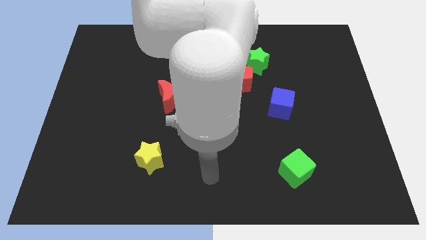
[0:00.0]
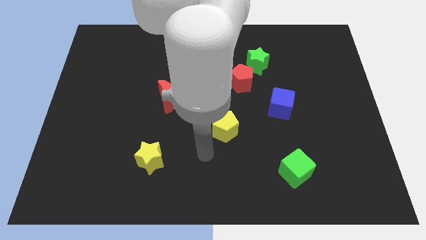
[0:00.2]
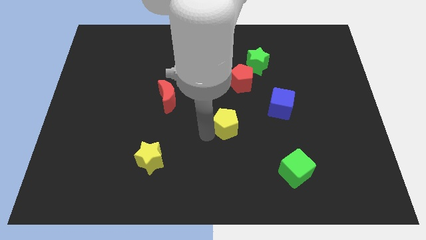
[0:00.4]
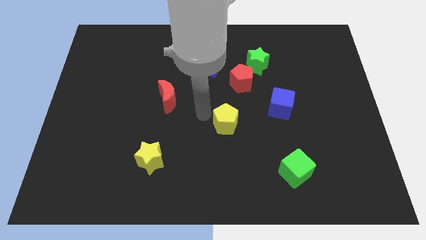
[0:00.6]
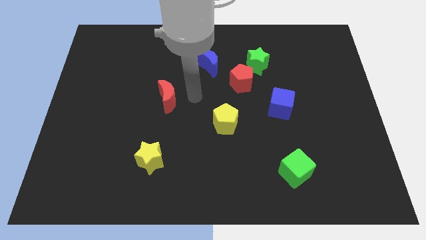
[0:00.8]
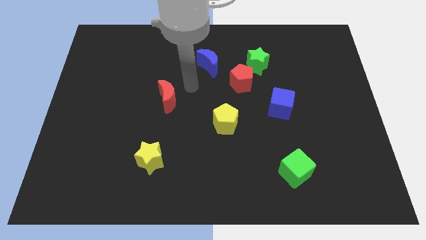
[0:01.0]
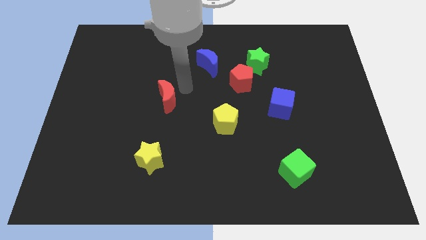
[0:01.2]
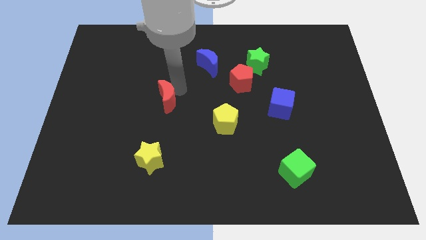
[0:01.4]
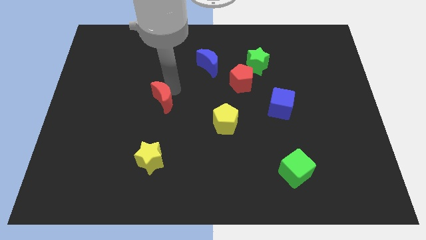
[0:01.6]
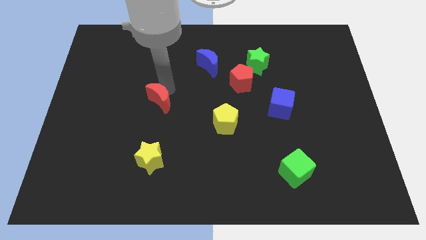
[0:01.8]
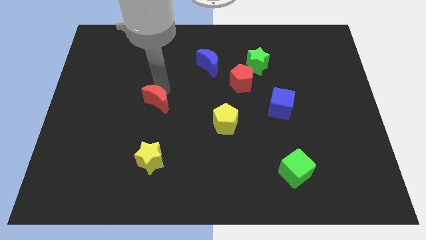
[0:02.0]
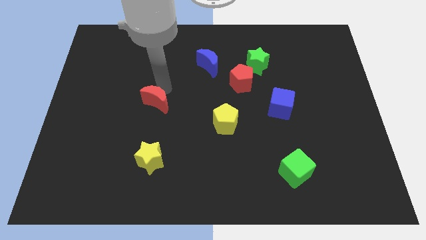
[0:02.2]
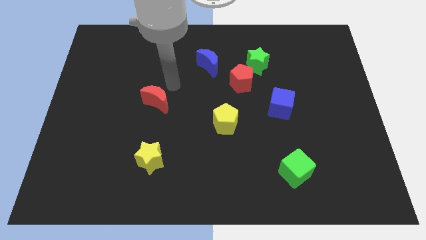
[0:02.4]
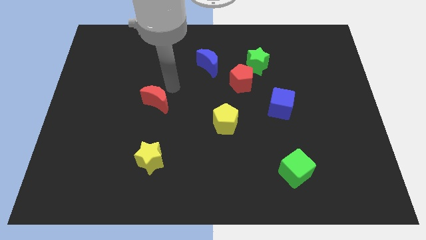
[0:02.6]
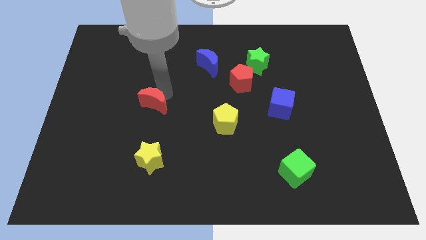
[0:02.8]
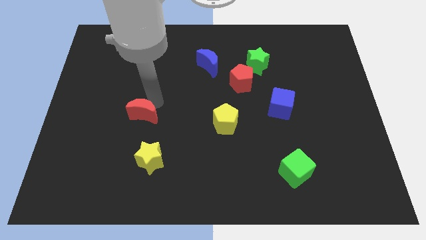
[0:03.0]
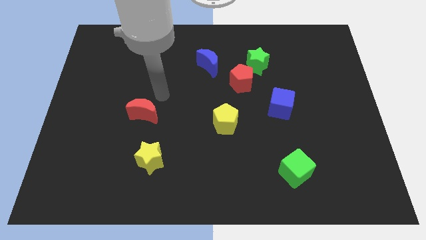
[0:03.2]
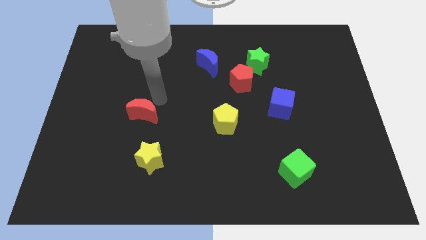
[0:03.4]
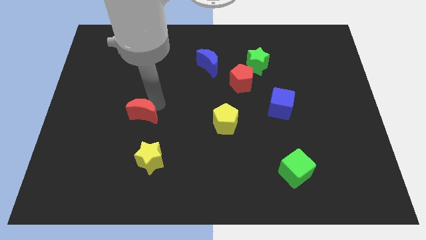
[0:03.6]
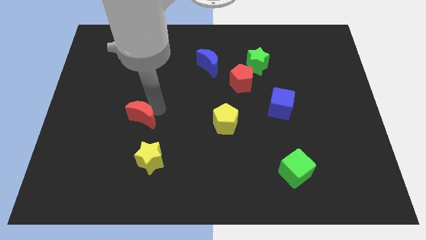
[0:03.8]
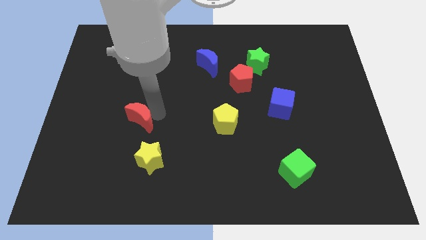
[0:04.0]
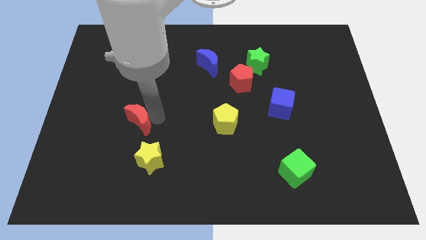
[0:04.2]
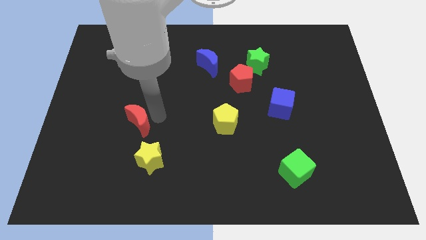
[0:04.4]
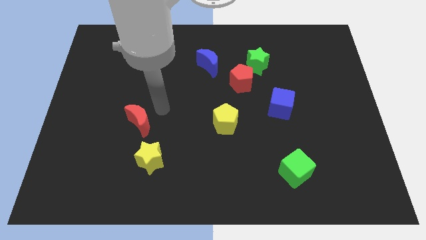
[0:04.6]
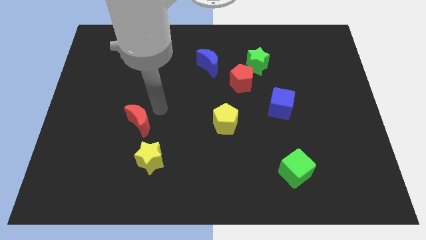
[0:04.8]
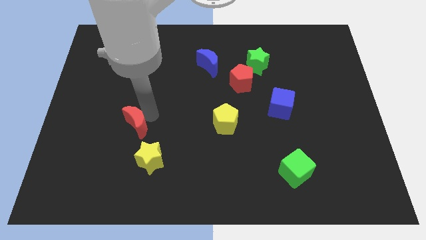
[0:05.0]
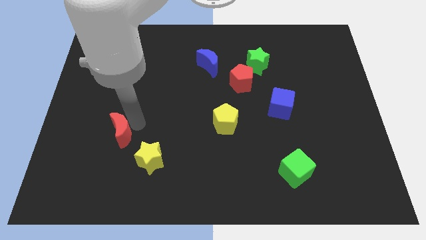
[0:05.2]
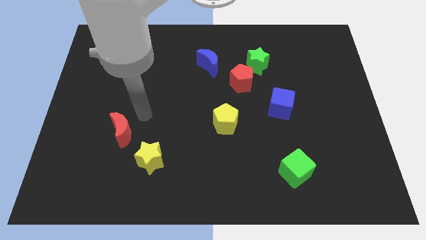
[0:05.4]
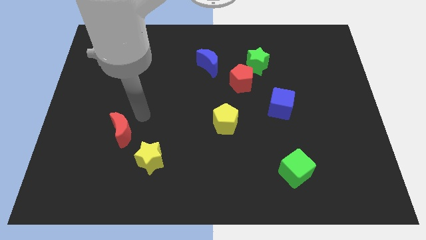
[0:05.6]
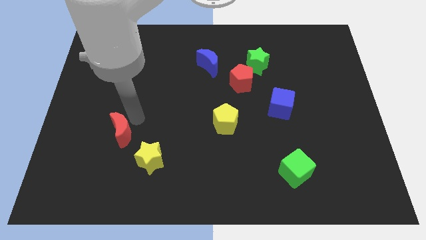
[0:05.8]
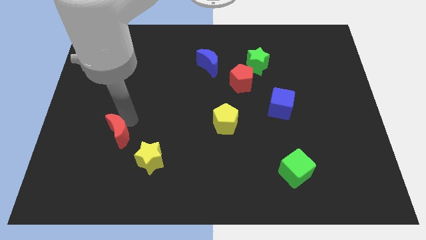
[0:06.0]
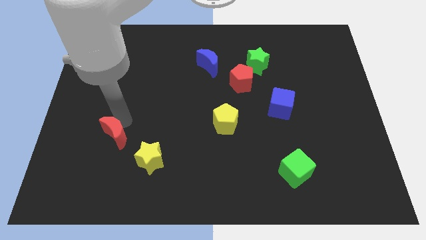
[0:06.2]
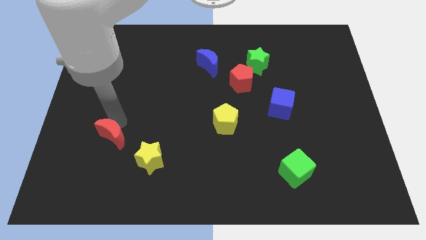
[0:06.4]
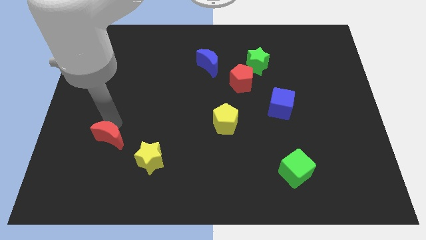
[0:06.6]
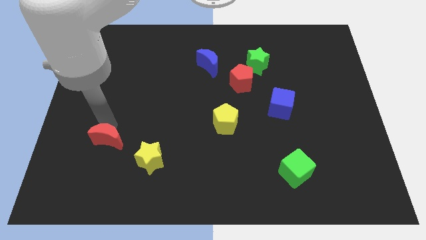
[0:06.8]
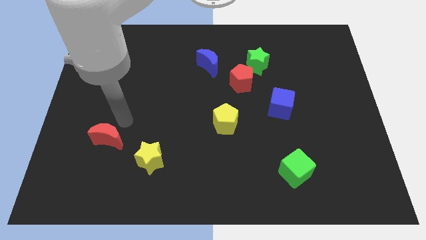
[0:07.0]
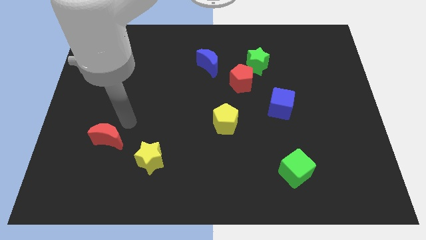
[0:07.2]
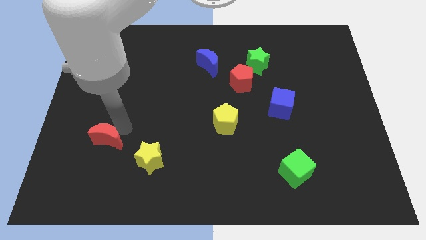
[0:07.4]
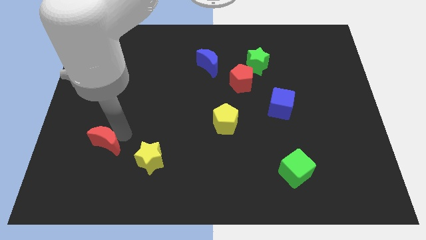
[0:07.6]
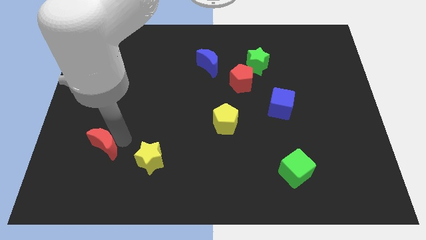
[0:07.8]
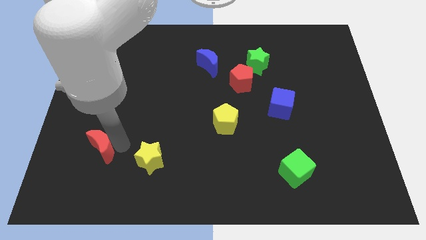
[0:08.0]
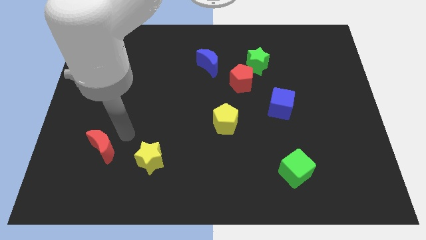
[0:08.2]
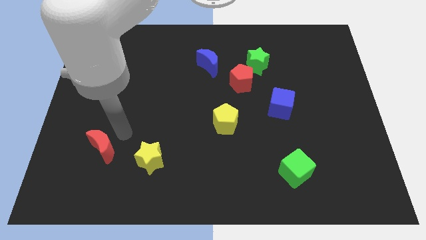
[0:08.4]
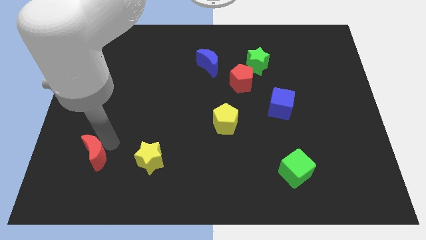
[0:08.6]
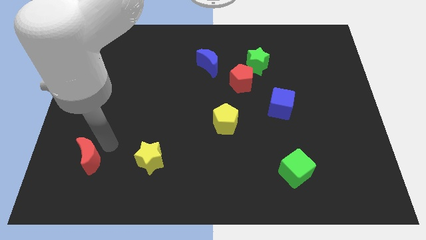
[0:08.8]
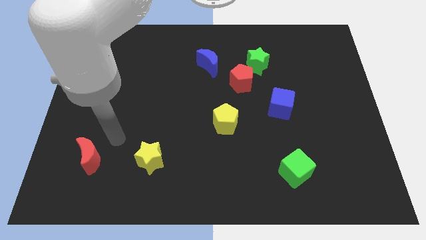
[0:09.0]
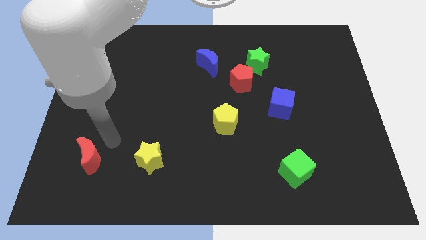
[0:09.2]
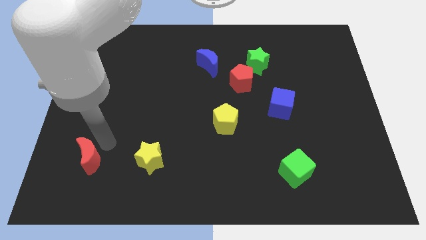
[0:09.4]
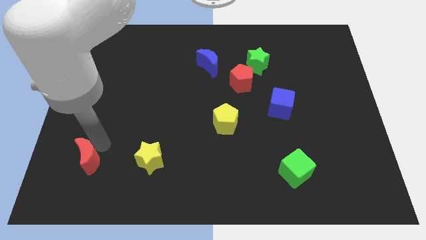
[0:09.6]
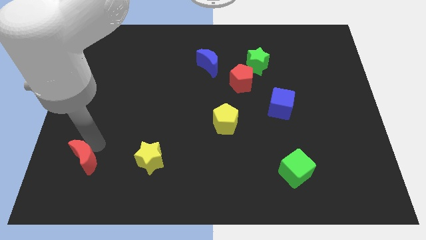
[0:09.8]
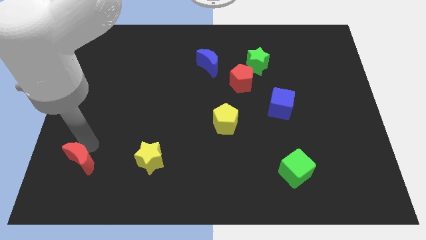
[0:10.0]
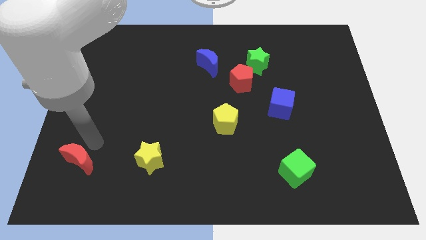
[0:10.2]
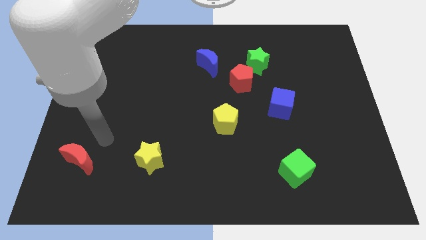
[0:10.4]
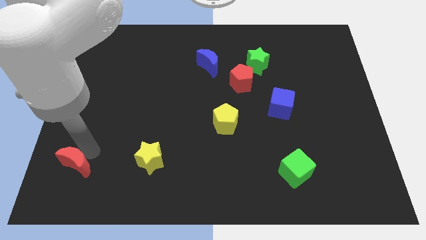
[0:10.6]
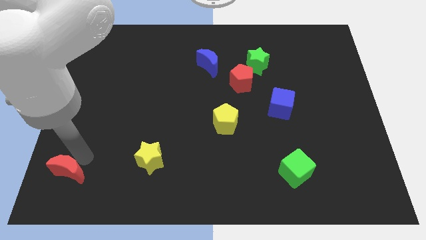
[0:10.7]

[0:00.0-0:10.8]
push the red moon to the bottom left of the board

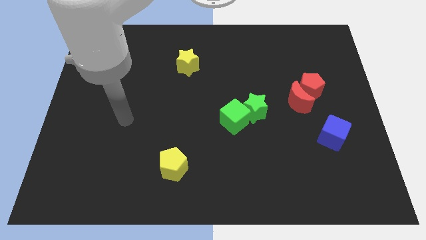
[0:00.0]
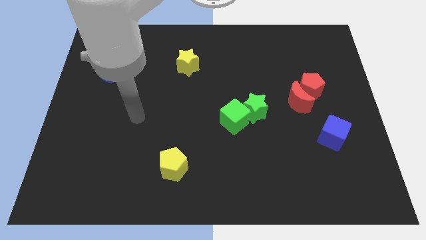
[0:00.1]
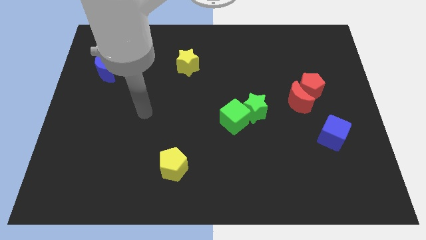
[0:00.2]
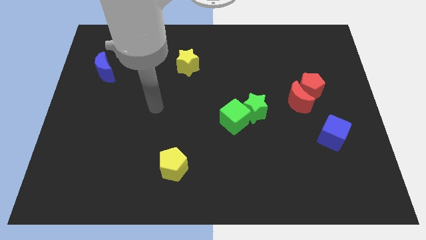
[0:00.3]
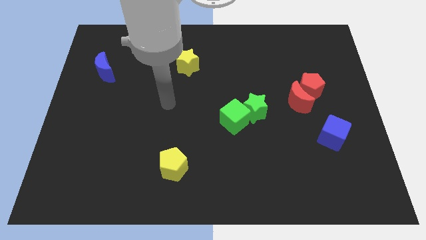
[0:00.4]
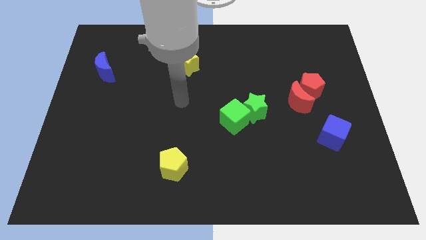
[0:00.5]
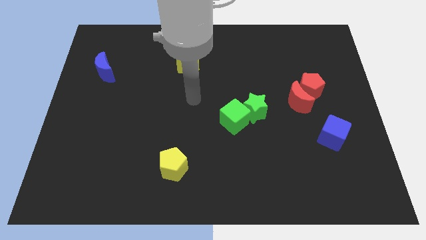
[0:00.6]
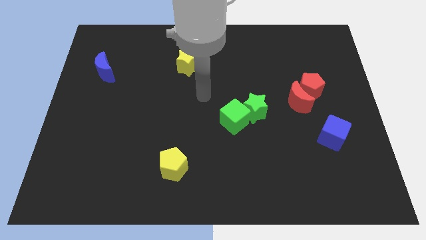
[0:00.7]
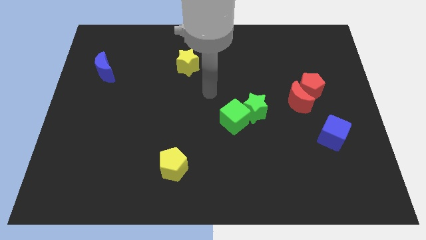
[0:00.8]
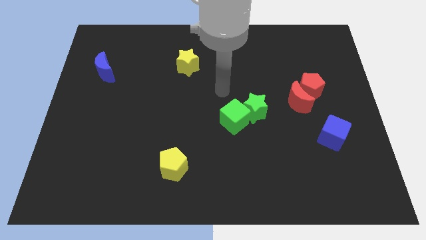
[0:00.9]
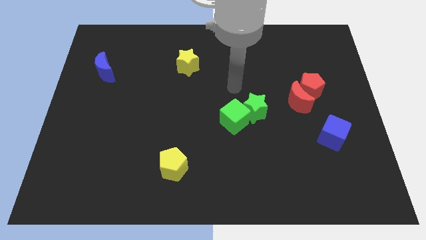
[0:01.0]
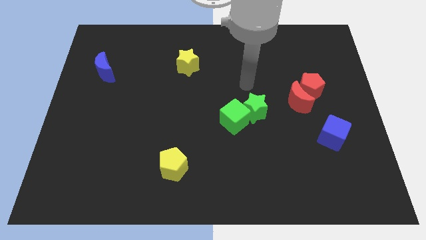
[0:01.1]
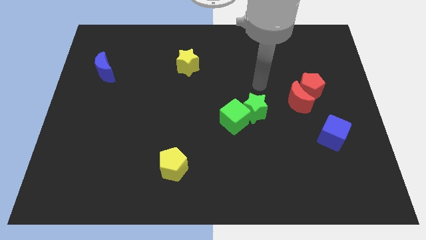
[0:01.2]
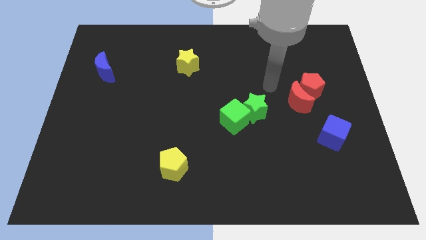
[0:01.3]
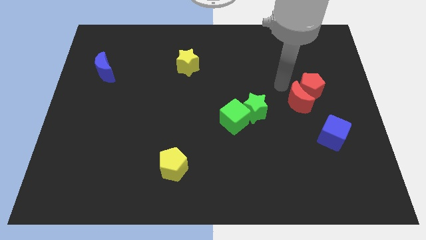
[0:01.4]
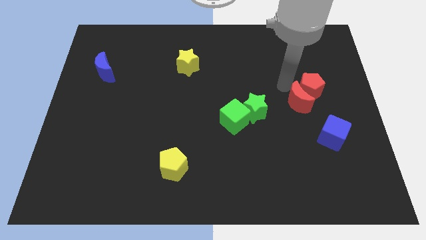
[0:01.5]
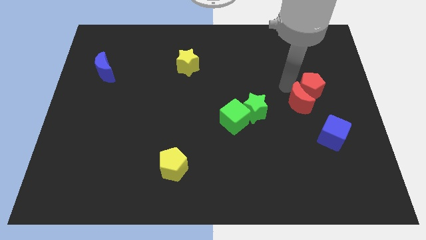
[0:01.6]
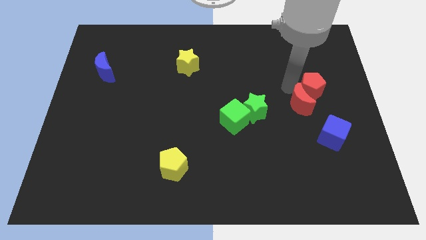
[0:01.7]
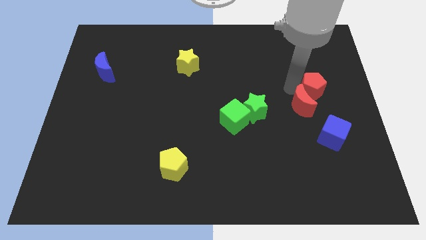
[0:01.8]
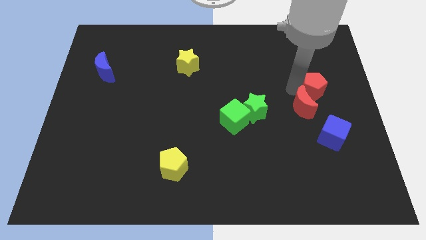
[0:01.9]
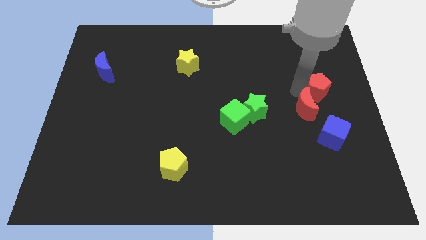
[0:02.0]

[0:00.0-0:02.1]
slide the red pentagon to the center right
